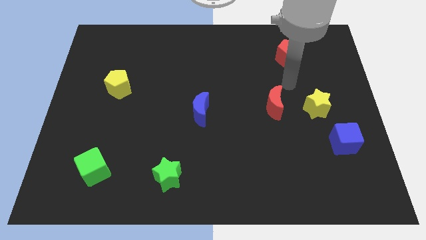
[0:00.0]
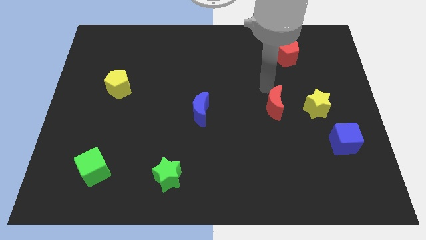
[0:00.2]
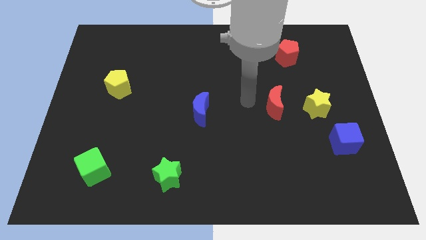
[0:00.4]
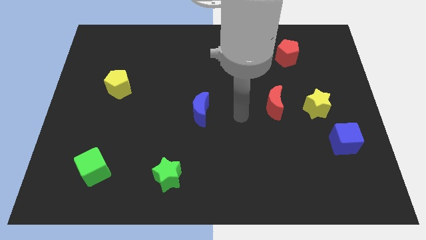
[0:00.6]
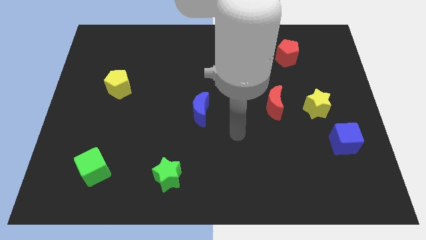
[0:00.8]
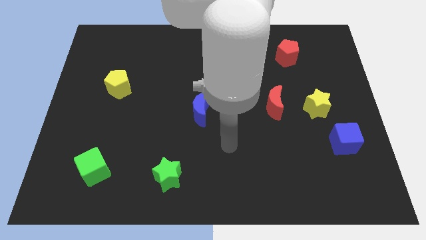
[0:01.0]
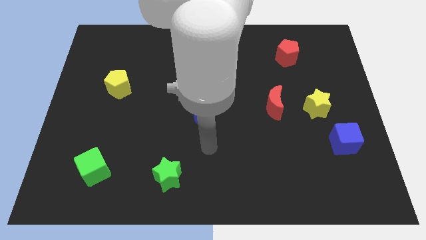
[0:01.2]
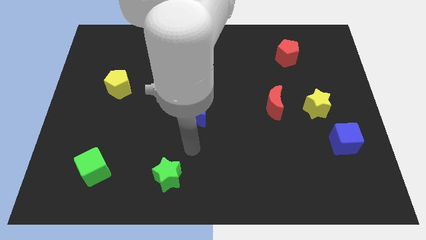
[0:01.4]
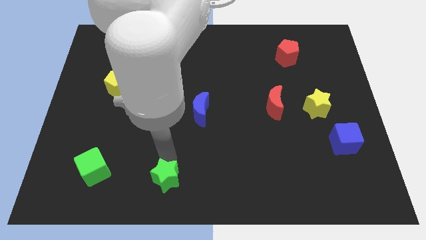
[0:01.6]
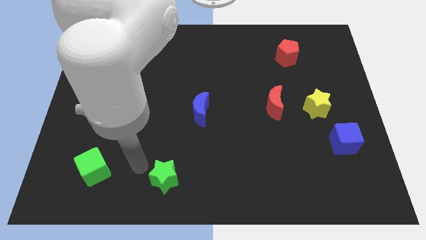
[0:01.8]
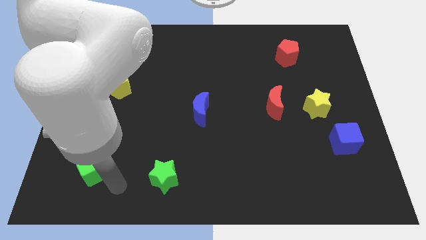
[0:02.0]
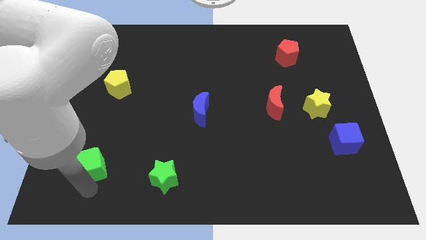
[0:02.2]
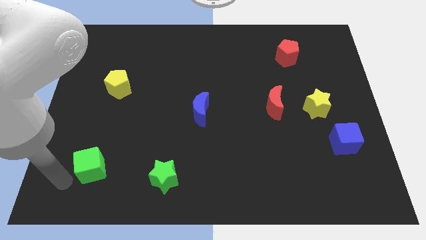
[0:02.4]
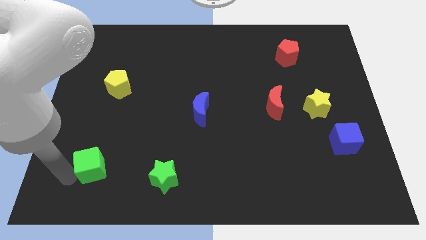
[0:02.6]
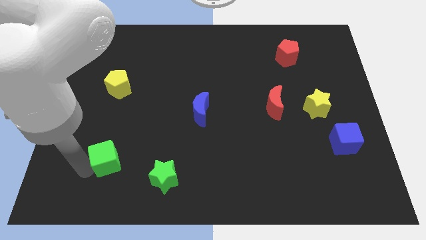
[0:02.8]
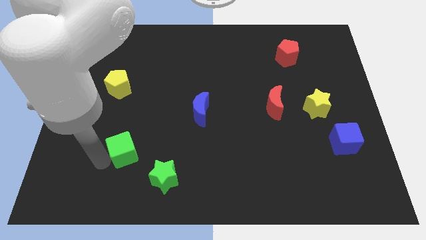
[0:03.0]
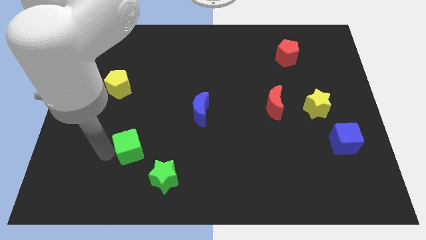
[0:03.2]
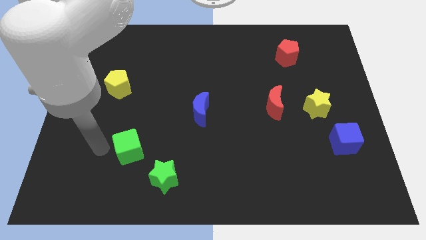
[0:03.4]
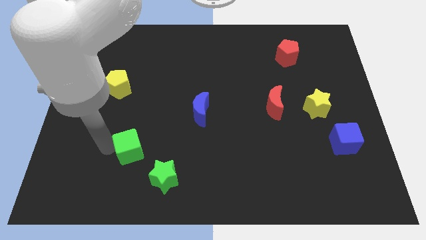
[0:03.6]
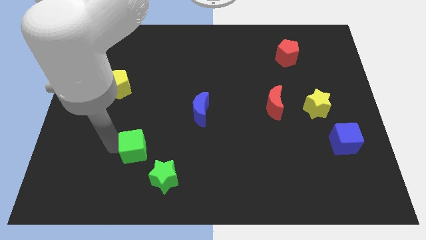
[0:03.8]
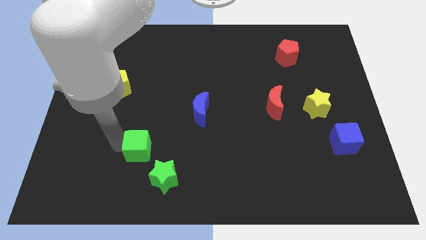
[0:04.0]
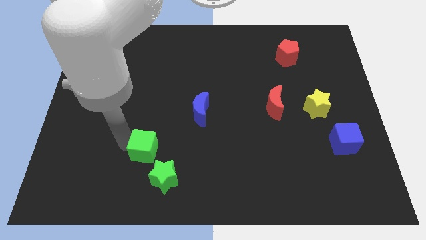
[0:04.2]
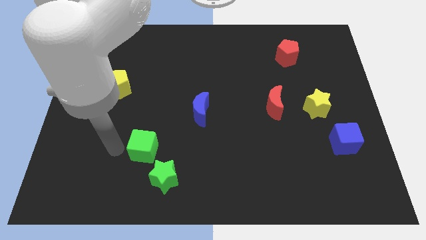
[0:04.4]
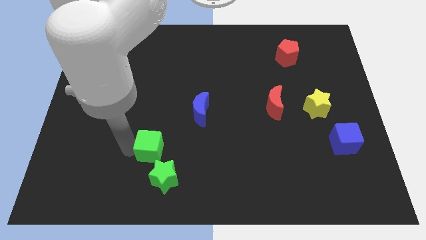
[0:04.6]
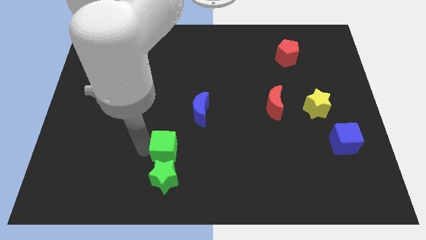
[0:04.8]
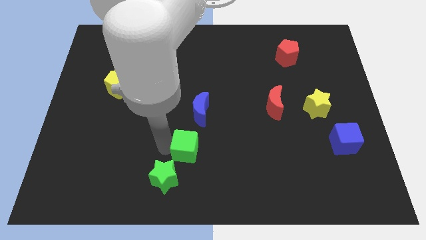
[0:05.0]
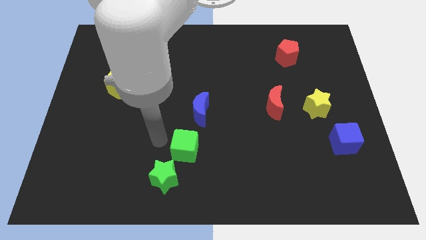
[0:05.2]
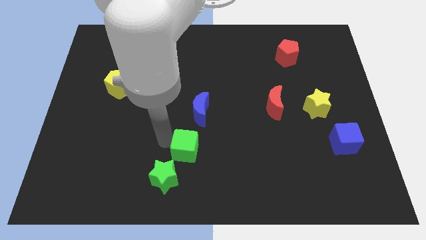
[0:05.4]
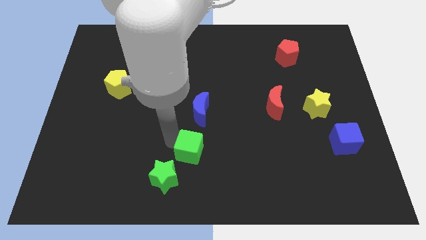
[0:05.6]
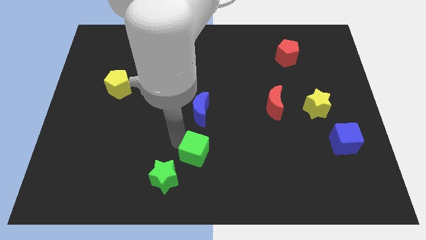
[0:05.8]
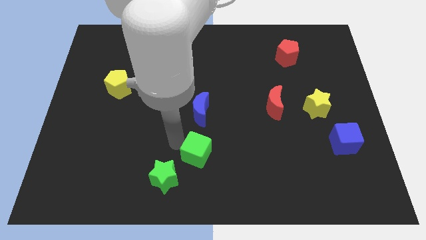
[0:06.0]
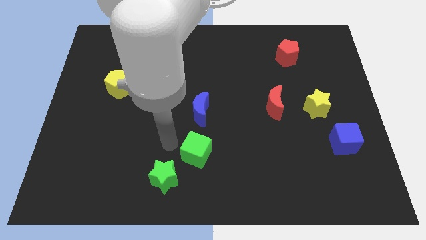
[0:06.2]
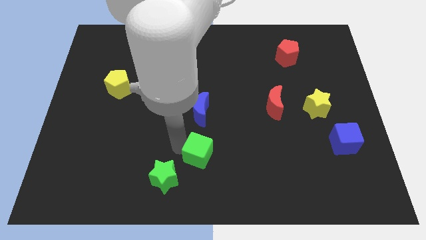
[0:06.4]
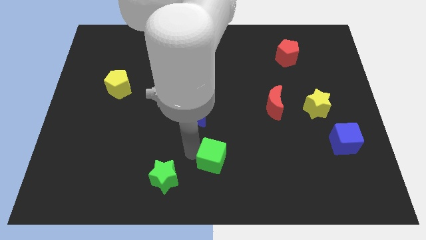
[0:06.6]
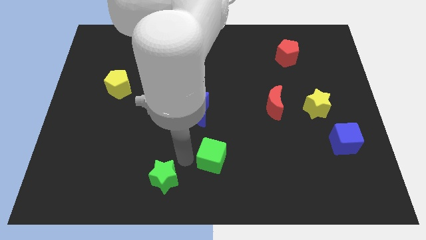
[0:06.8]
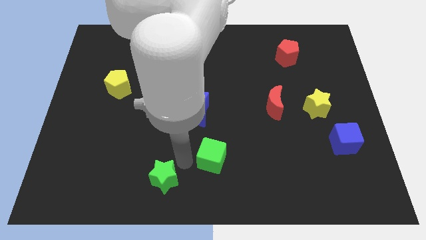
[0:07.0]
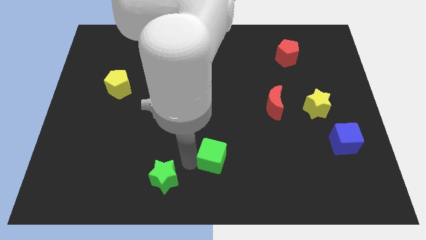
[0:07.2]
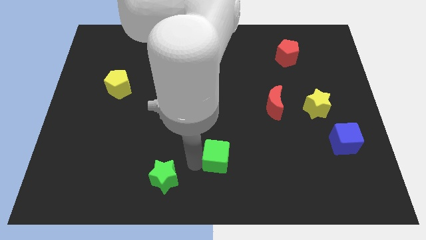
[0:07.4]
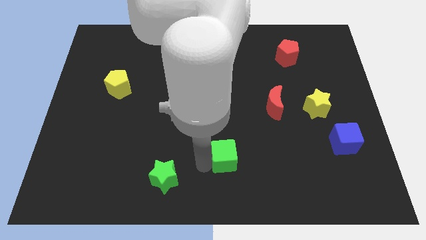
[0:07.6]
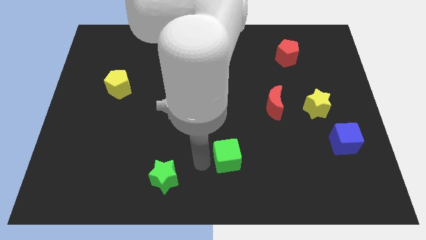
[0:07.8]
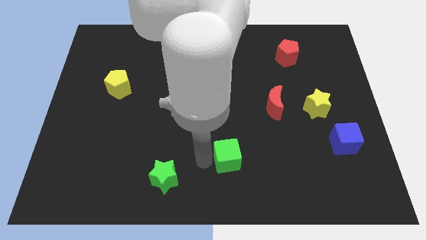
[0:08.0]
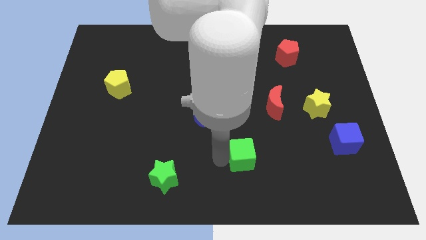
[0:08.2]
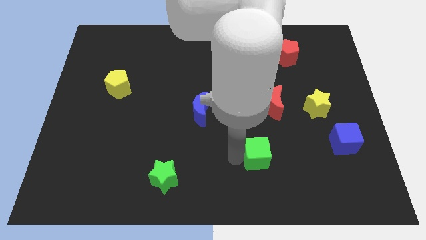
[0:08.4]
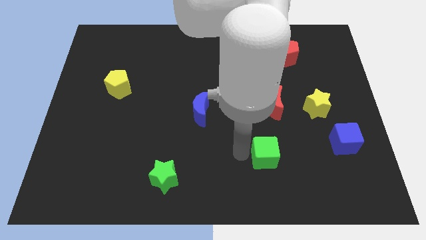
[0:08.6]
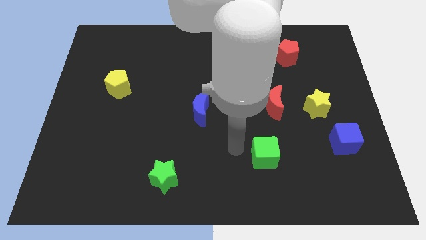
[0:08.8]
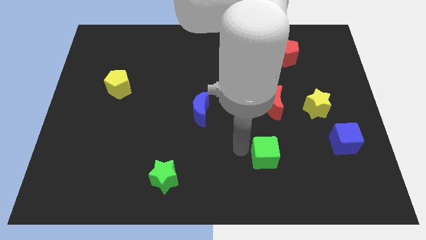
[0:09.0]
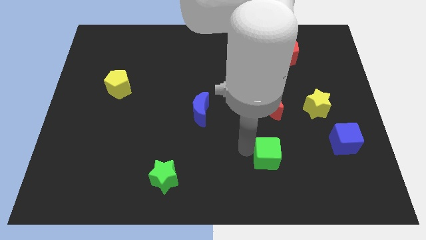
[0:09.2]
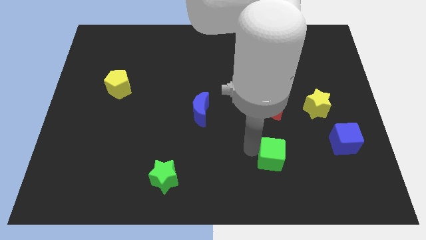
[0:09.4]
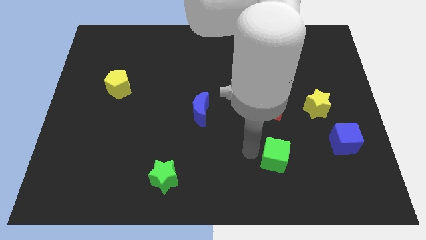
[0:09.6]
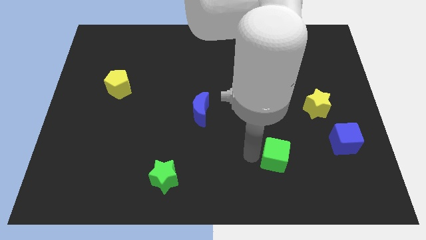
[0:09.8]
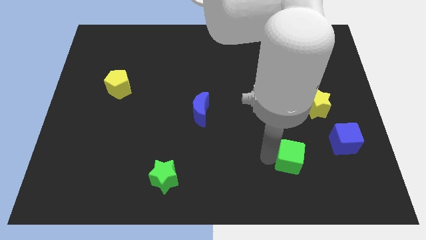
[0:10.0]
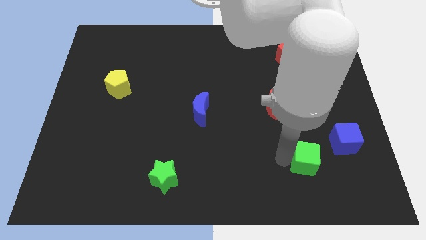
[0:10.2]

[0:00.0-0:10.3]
push the green cube diagonally down and to the left of the blue cube

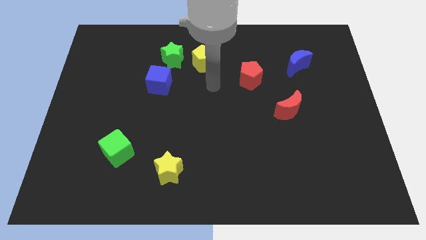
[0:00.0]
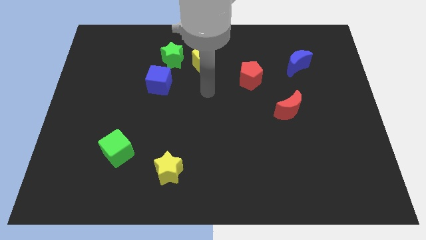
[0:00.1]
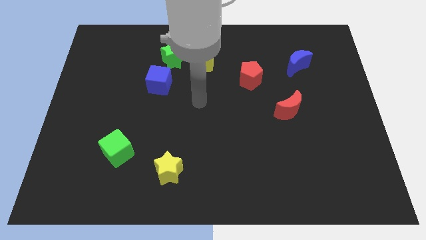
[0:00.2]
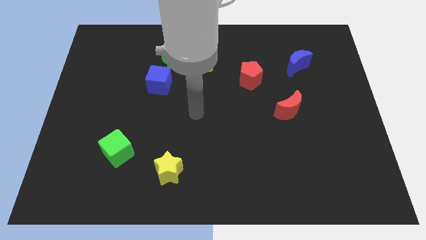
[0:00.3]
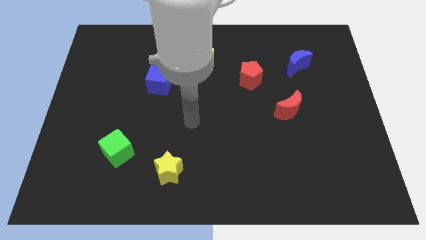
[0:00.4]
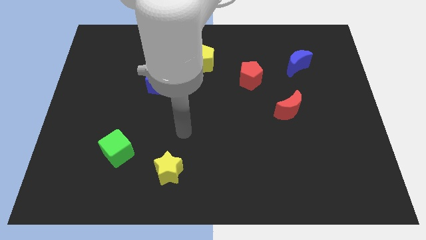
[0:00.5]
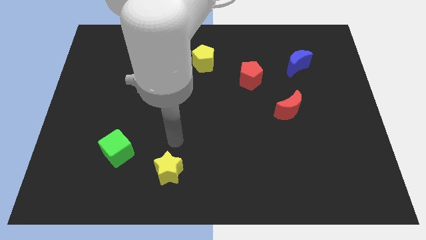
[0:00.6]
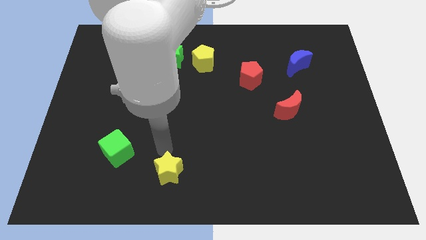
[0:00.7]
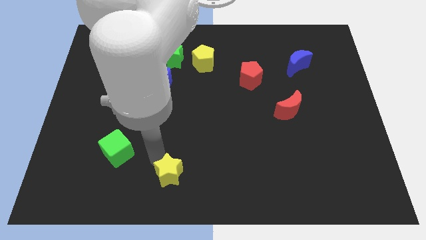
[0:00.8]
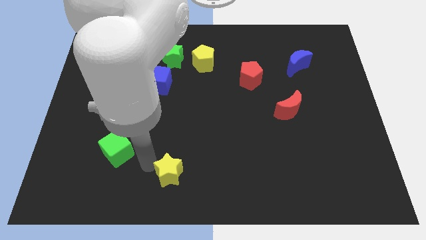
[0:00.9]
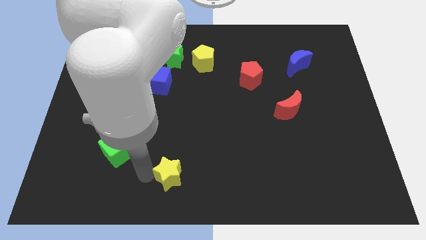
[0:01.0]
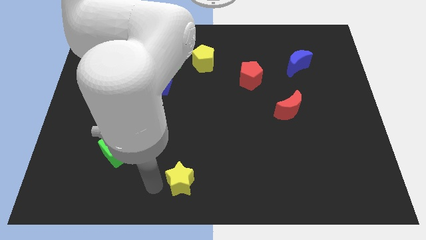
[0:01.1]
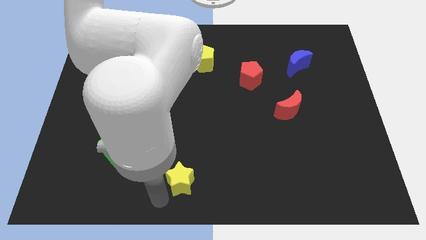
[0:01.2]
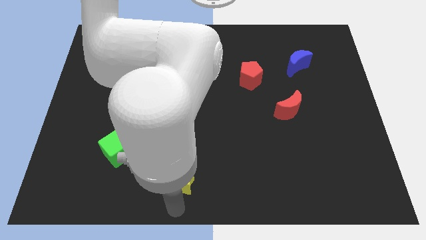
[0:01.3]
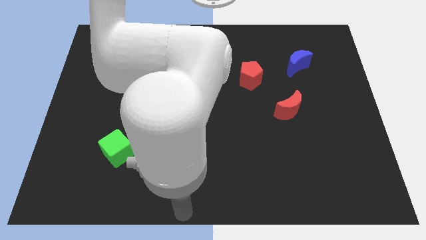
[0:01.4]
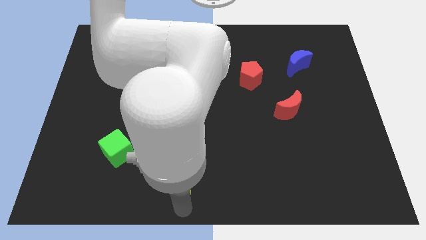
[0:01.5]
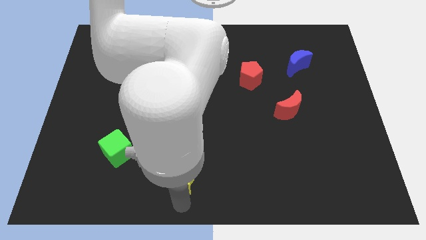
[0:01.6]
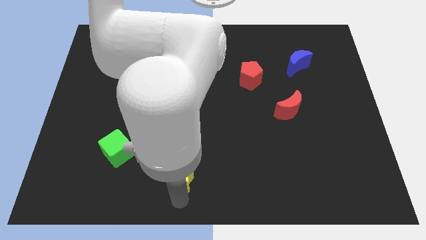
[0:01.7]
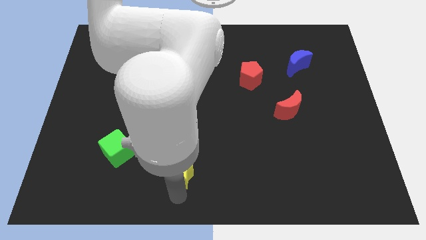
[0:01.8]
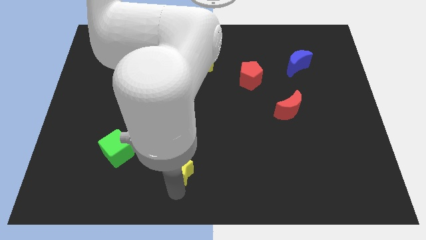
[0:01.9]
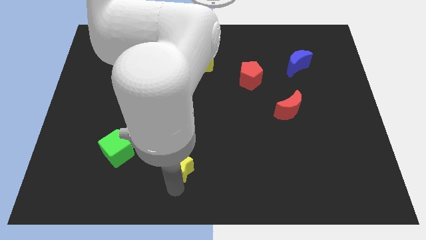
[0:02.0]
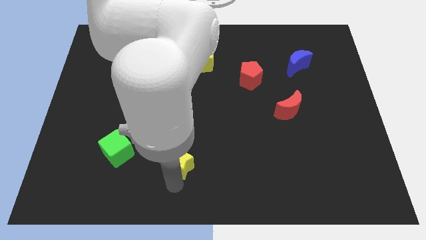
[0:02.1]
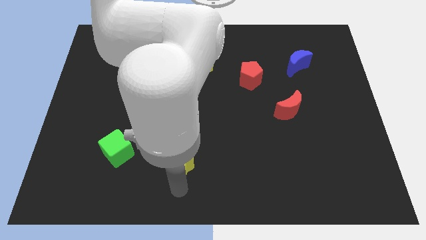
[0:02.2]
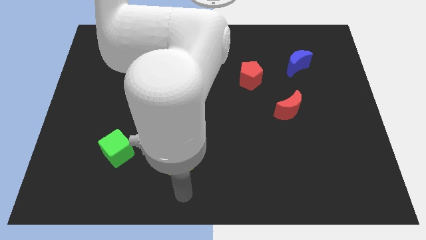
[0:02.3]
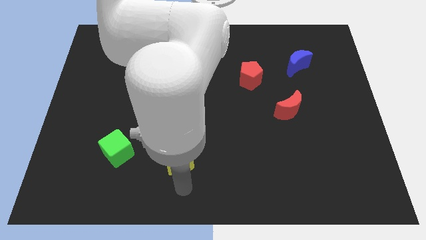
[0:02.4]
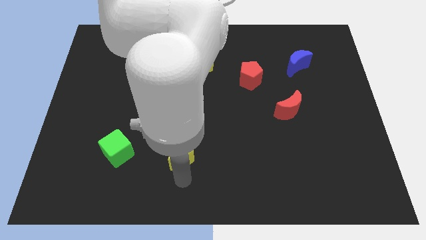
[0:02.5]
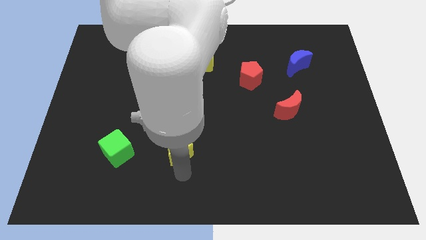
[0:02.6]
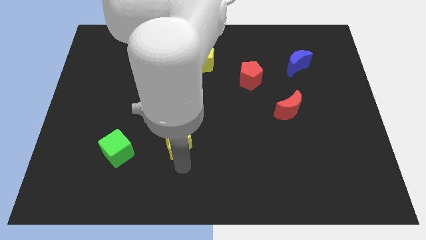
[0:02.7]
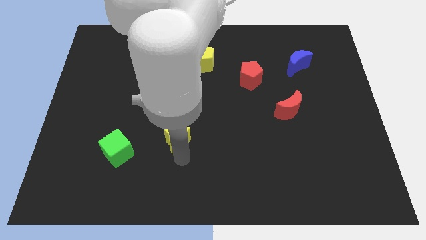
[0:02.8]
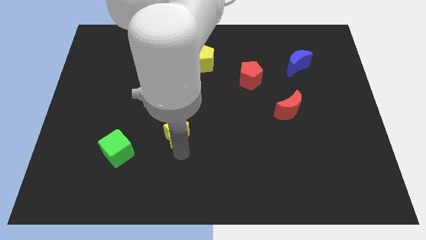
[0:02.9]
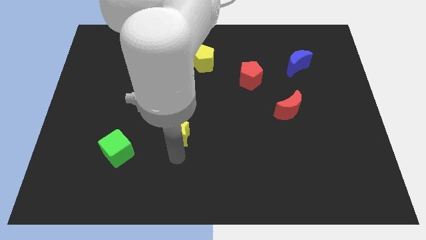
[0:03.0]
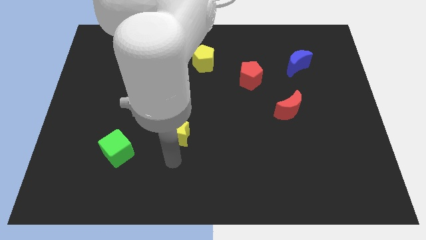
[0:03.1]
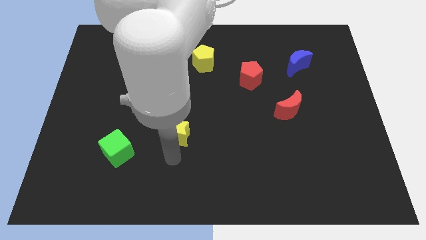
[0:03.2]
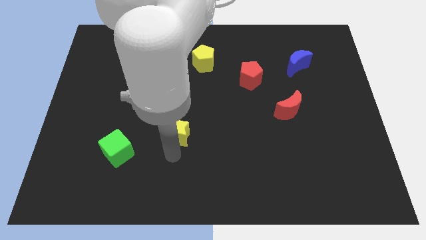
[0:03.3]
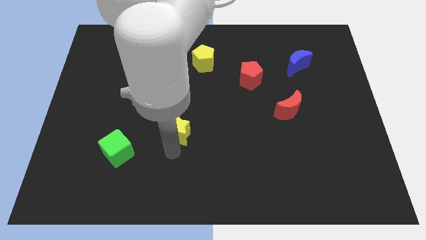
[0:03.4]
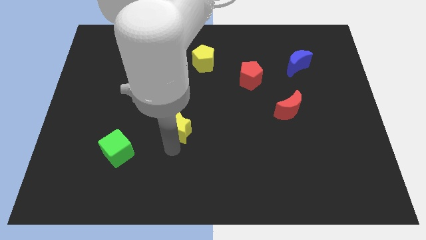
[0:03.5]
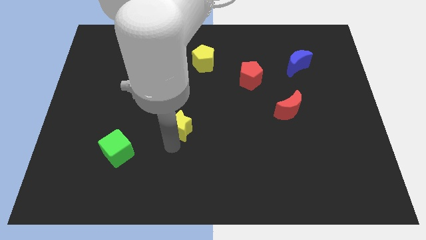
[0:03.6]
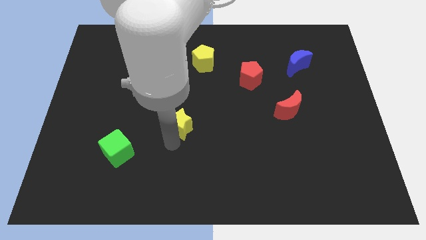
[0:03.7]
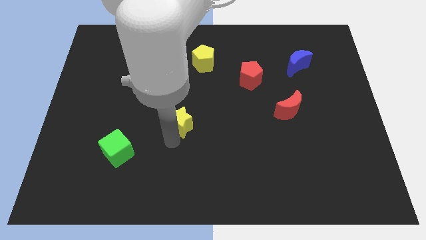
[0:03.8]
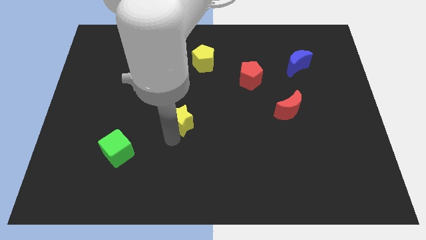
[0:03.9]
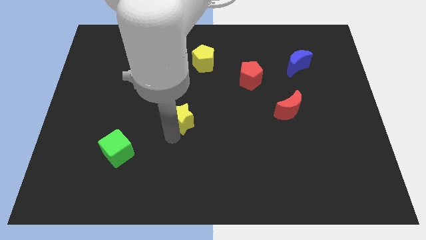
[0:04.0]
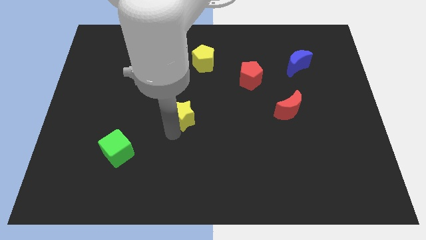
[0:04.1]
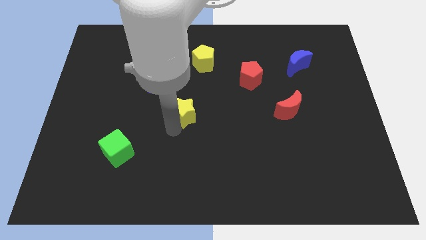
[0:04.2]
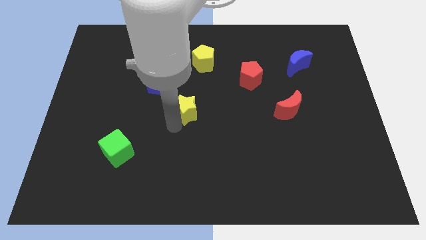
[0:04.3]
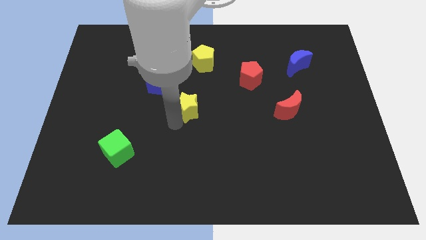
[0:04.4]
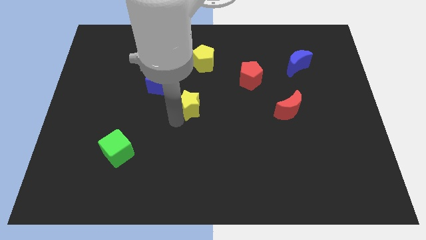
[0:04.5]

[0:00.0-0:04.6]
push the yellow star to the bottom side of the yellow pentagon
